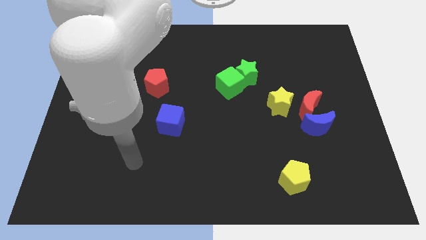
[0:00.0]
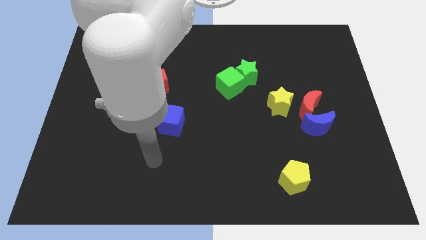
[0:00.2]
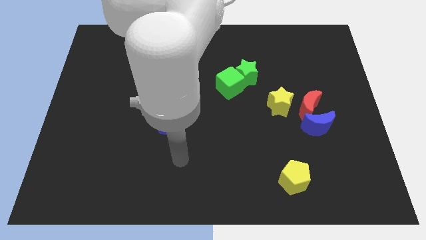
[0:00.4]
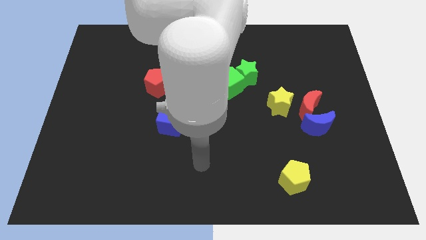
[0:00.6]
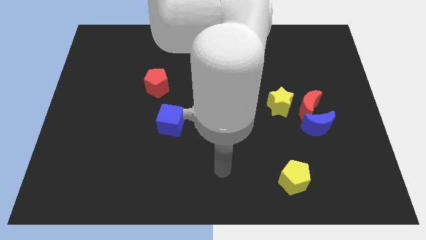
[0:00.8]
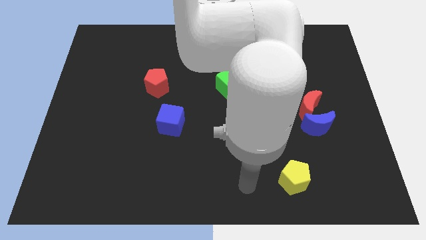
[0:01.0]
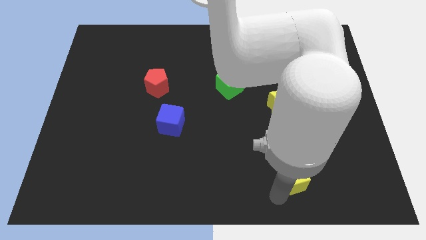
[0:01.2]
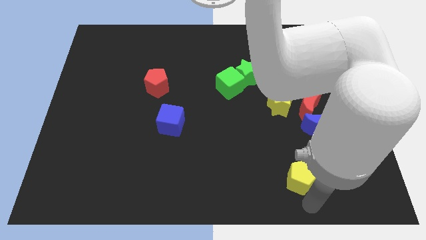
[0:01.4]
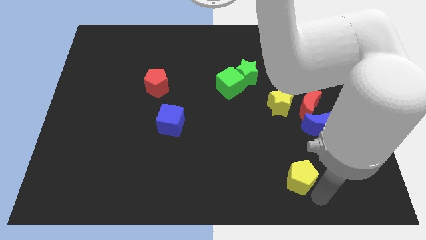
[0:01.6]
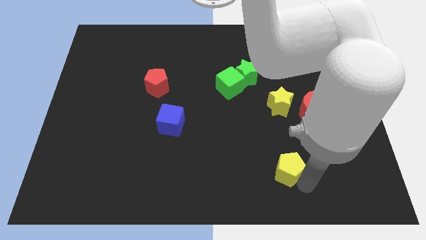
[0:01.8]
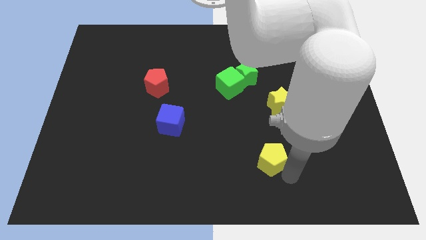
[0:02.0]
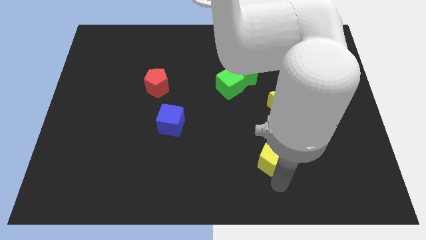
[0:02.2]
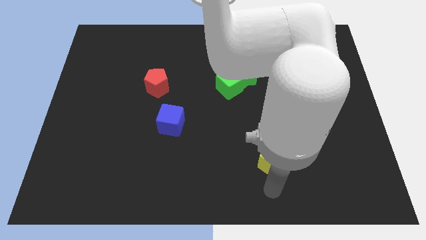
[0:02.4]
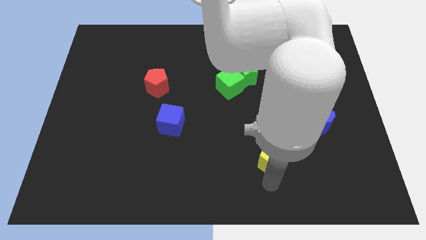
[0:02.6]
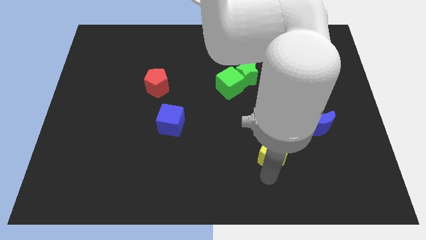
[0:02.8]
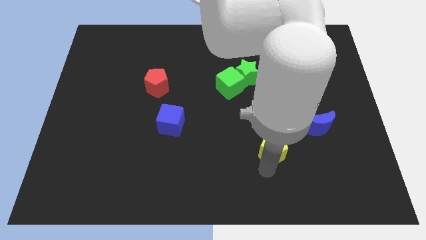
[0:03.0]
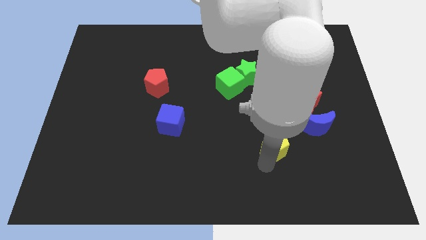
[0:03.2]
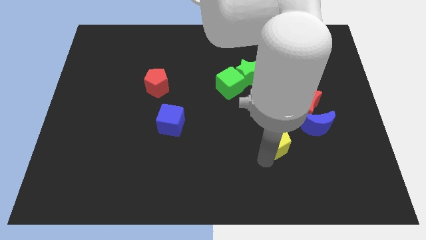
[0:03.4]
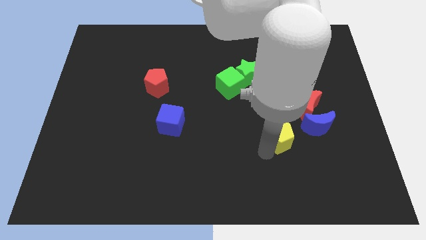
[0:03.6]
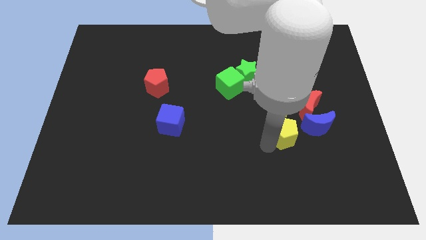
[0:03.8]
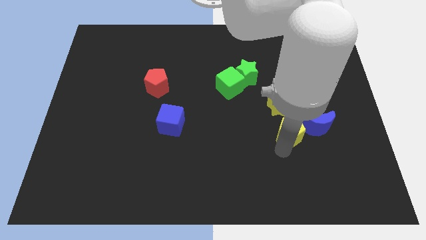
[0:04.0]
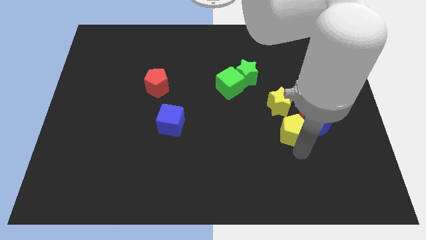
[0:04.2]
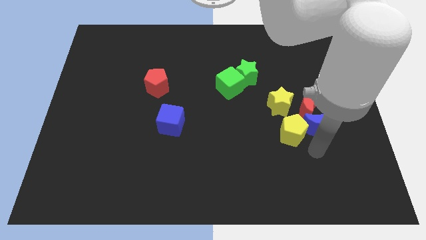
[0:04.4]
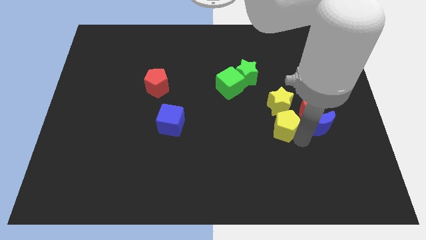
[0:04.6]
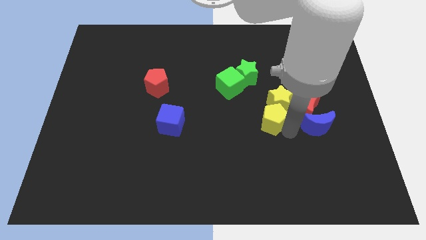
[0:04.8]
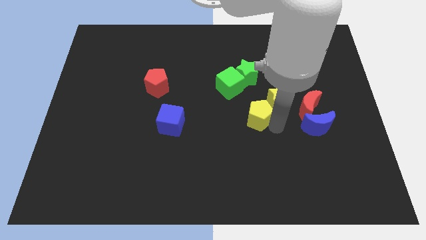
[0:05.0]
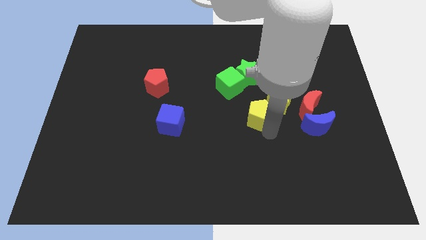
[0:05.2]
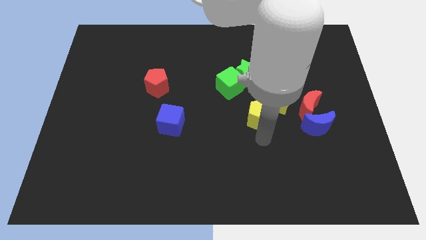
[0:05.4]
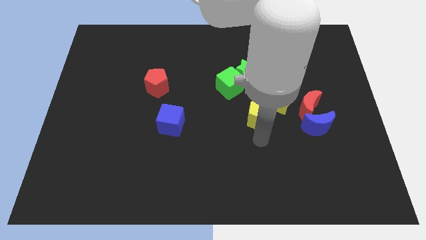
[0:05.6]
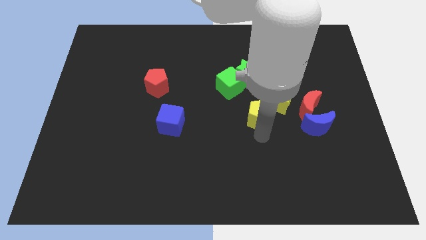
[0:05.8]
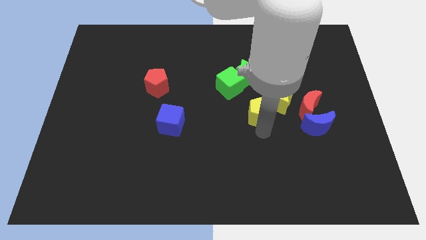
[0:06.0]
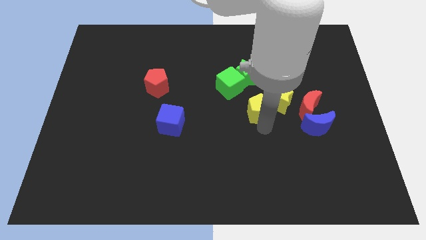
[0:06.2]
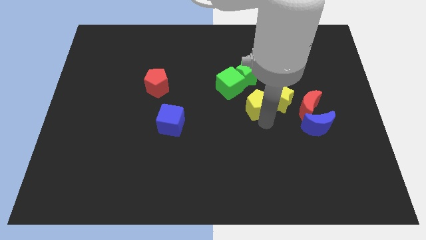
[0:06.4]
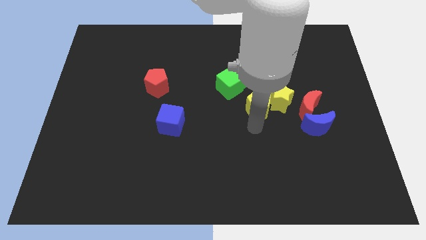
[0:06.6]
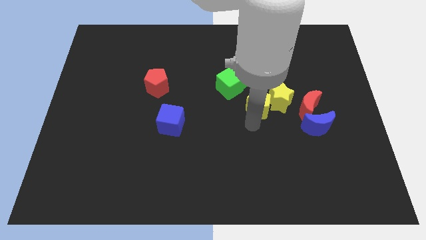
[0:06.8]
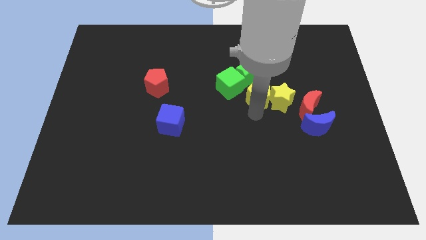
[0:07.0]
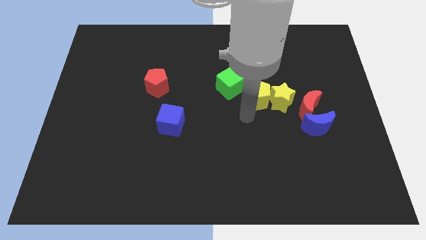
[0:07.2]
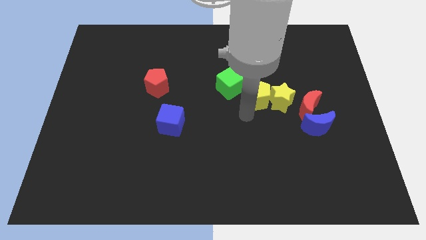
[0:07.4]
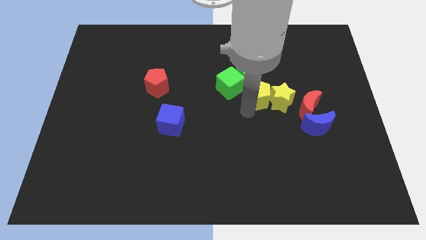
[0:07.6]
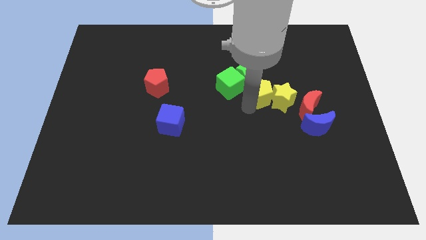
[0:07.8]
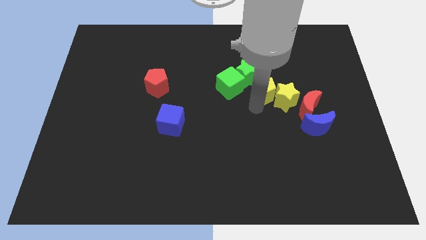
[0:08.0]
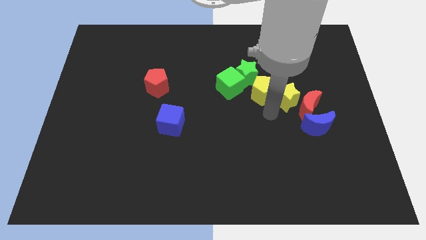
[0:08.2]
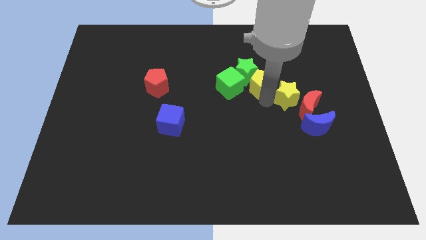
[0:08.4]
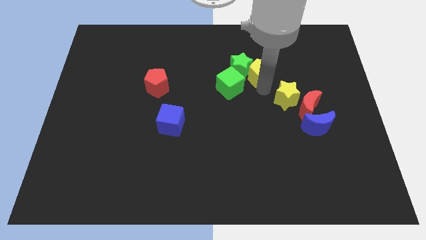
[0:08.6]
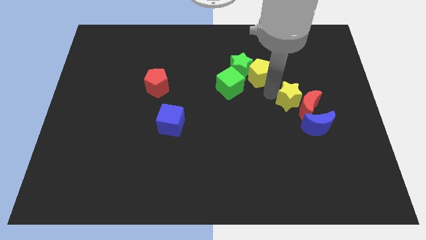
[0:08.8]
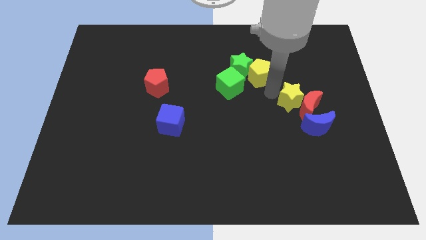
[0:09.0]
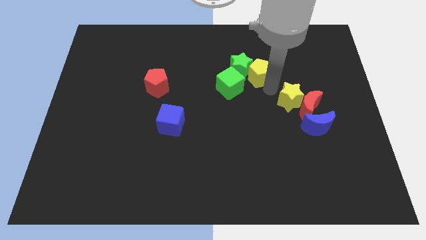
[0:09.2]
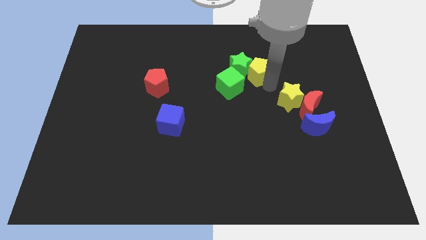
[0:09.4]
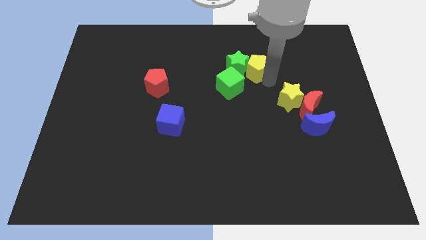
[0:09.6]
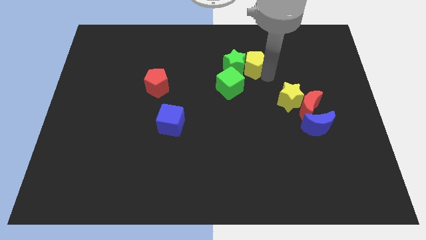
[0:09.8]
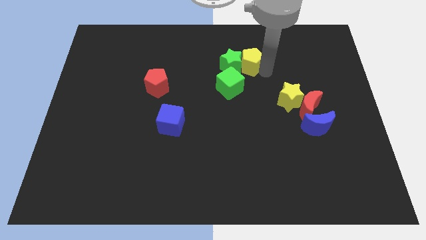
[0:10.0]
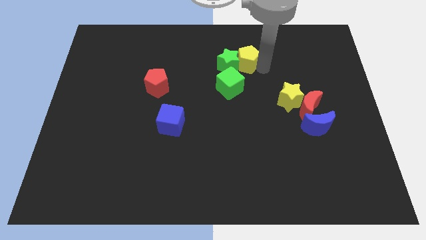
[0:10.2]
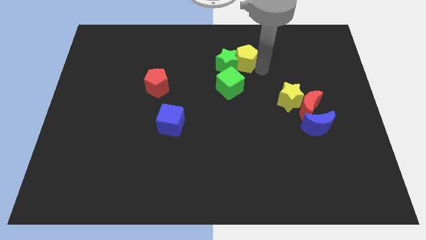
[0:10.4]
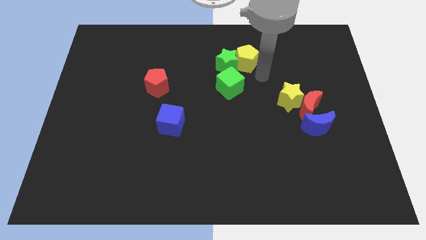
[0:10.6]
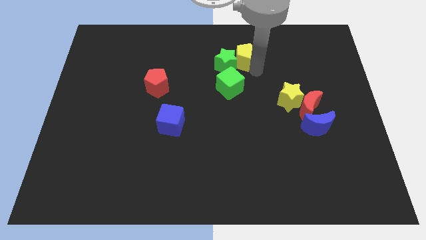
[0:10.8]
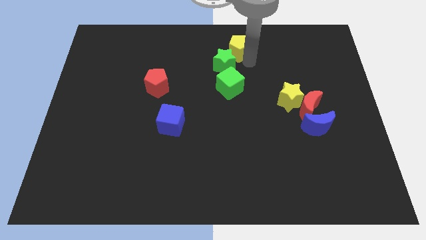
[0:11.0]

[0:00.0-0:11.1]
put the yellow pentagon to the towards your base

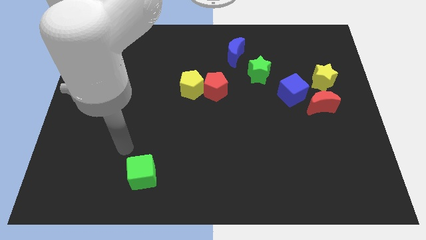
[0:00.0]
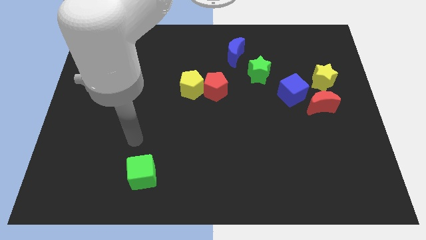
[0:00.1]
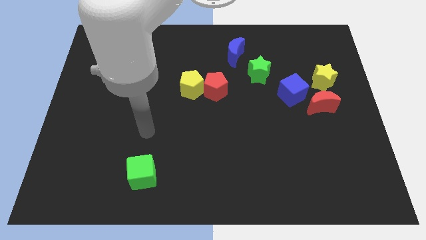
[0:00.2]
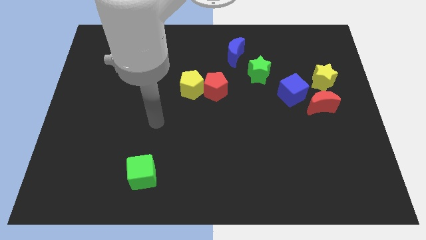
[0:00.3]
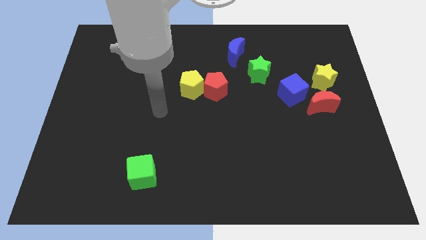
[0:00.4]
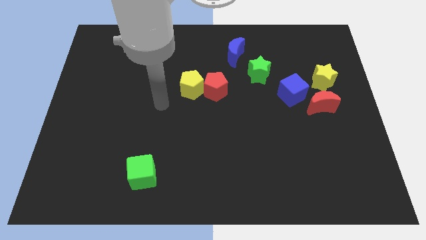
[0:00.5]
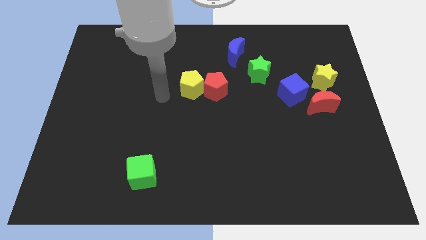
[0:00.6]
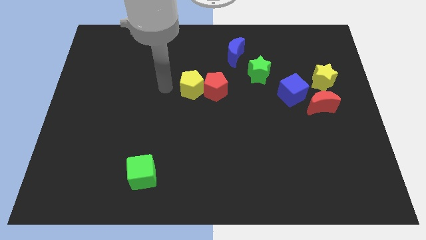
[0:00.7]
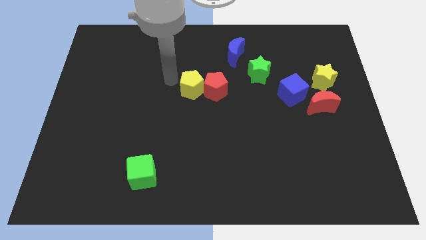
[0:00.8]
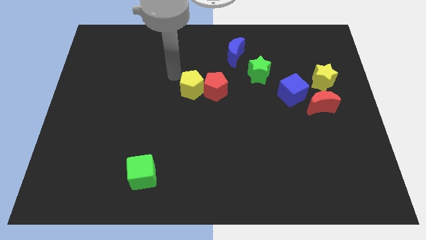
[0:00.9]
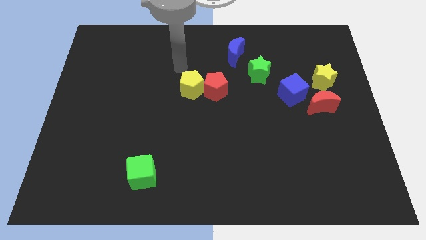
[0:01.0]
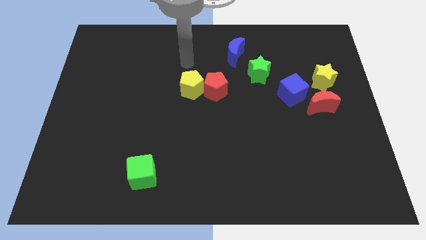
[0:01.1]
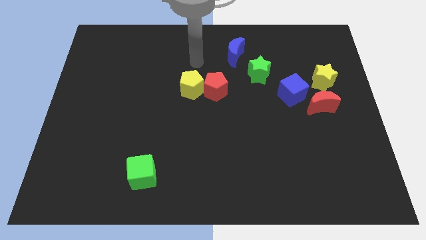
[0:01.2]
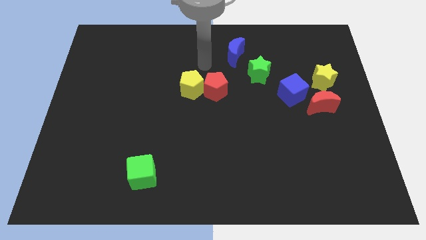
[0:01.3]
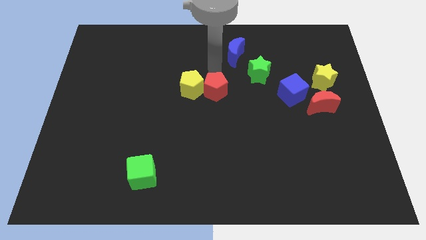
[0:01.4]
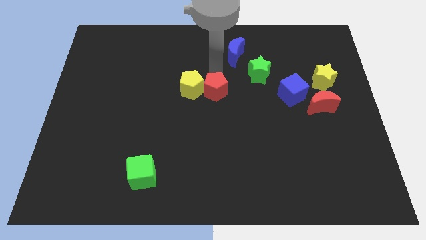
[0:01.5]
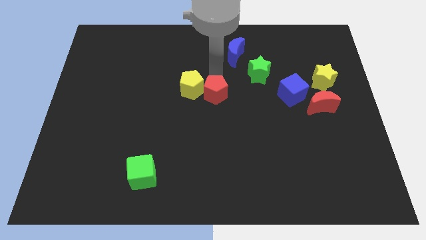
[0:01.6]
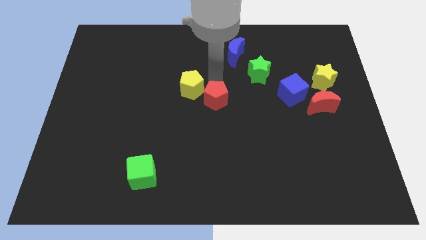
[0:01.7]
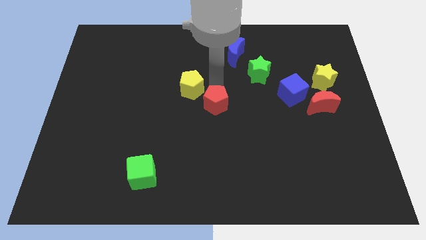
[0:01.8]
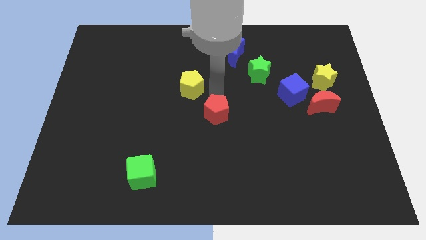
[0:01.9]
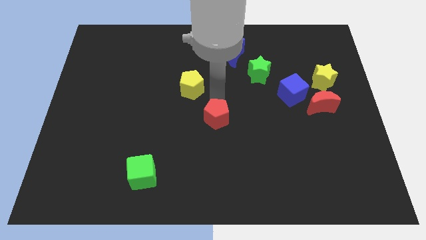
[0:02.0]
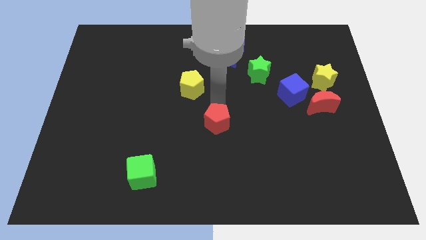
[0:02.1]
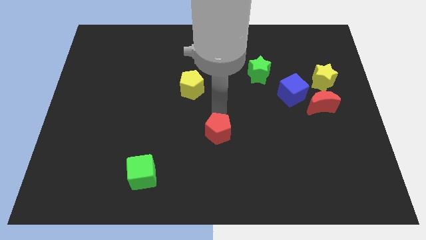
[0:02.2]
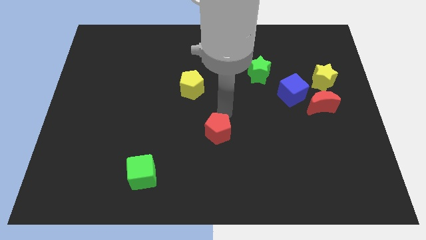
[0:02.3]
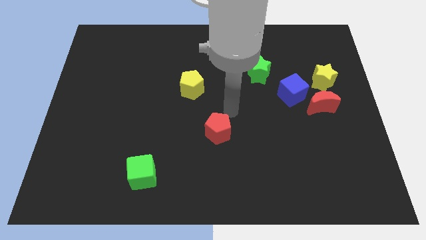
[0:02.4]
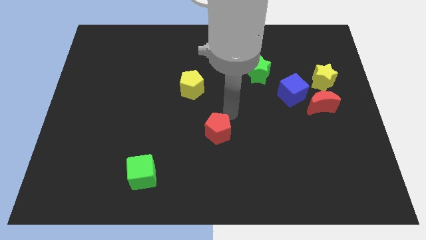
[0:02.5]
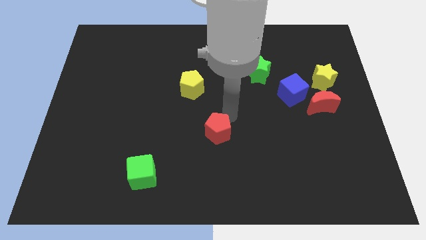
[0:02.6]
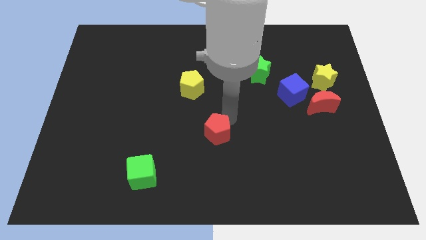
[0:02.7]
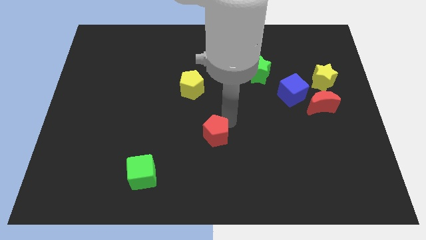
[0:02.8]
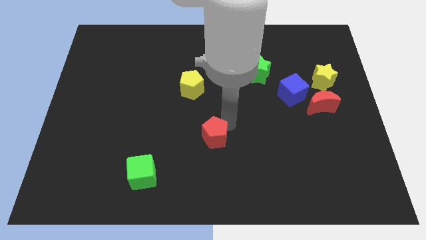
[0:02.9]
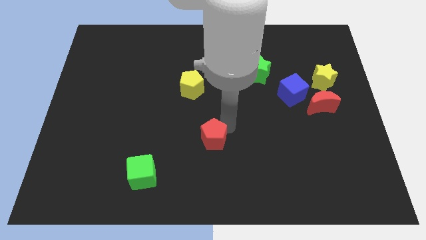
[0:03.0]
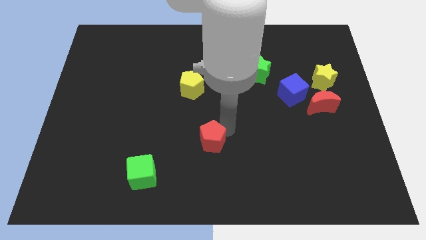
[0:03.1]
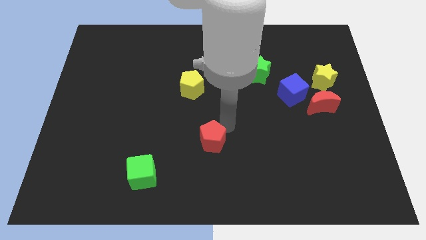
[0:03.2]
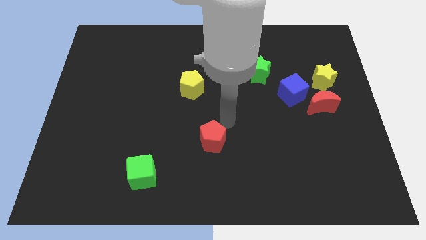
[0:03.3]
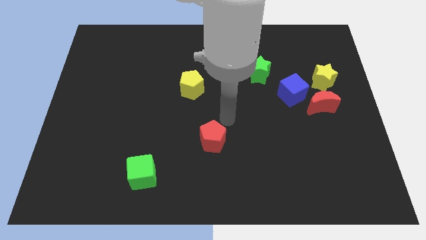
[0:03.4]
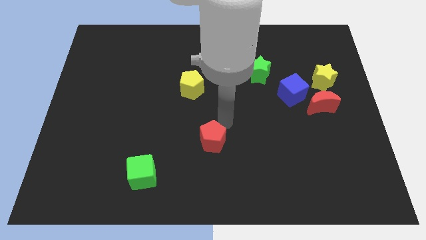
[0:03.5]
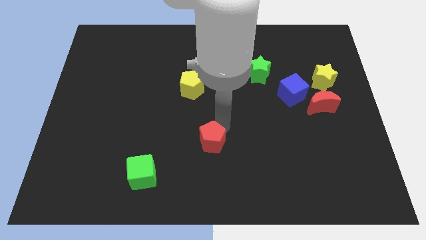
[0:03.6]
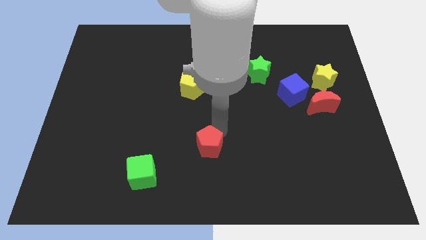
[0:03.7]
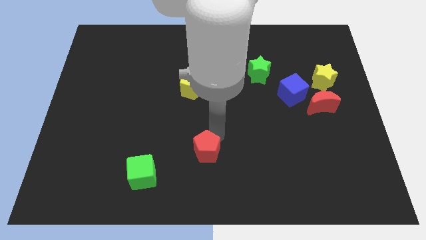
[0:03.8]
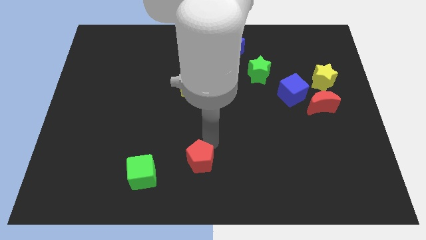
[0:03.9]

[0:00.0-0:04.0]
push the red pentagon to the bottom side
